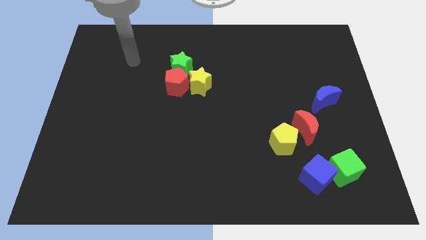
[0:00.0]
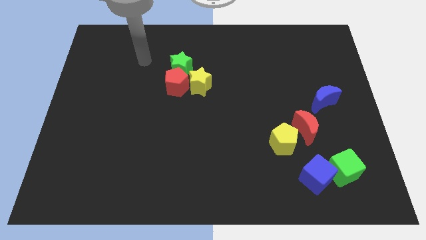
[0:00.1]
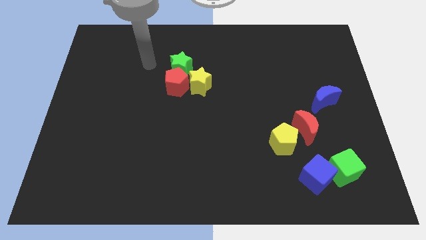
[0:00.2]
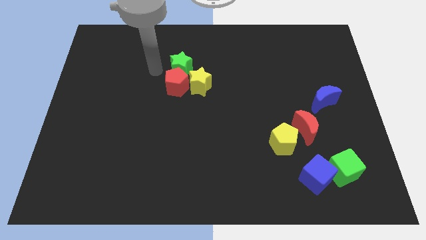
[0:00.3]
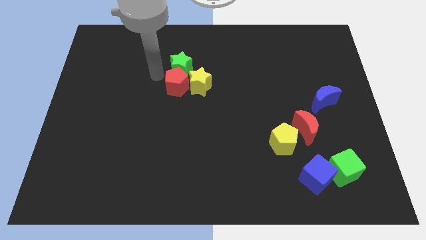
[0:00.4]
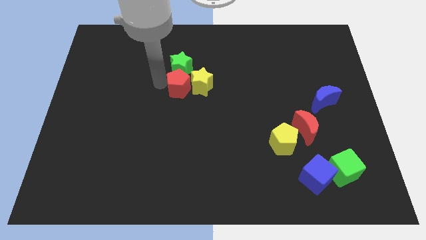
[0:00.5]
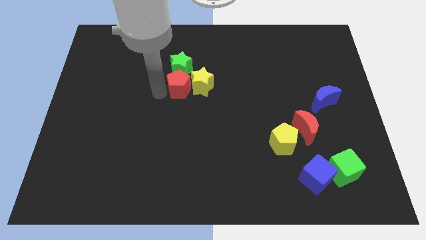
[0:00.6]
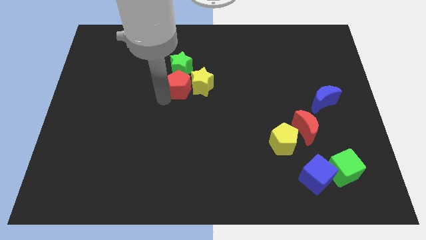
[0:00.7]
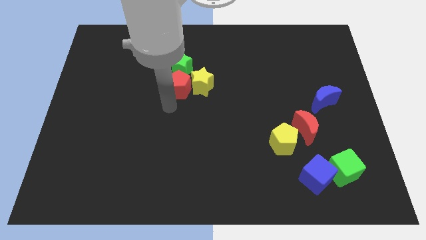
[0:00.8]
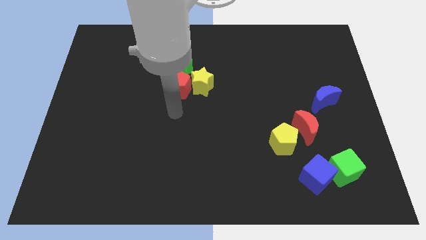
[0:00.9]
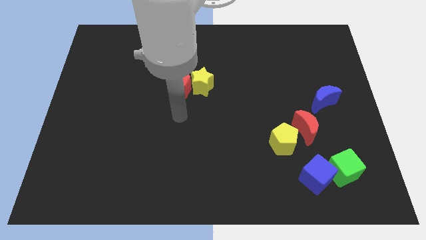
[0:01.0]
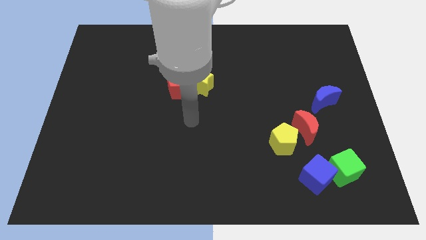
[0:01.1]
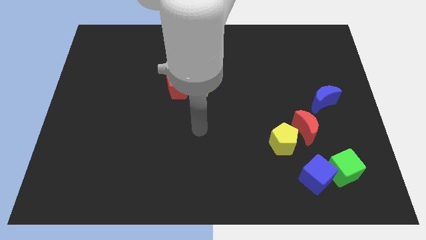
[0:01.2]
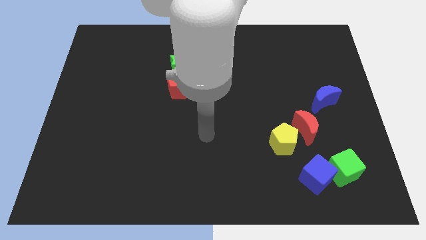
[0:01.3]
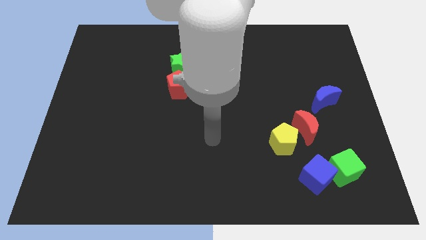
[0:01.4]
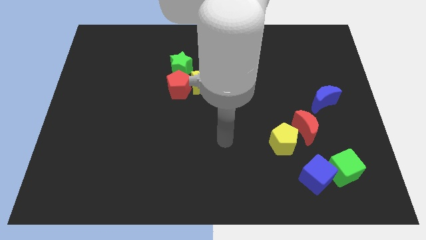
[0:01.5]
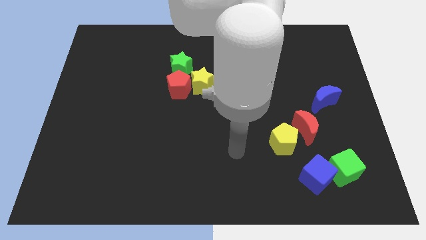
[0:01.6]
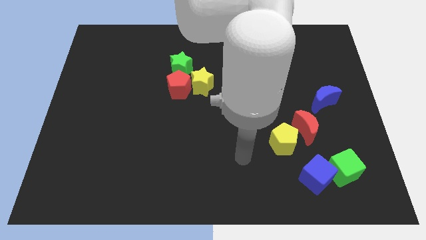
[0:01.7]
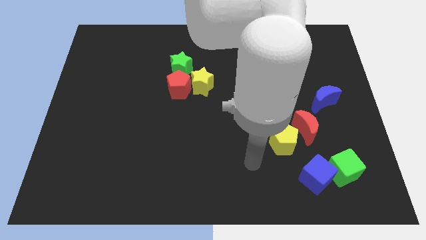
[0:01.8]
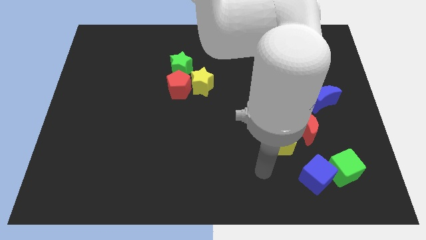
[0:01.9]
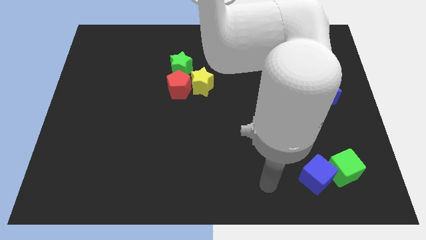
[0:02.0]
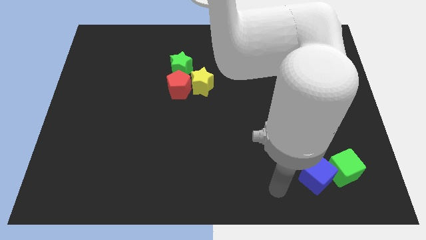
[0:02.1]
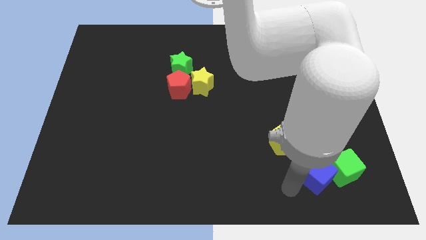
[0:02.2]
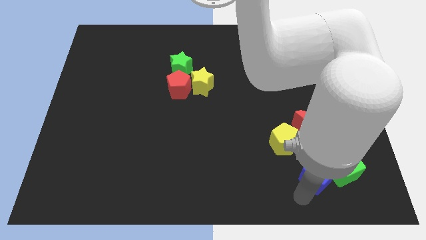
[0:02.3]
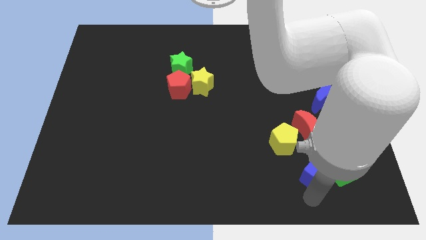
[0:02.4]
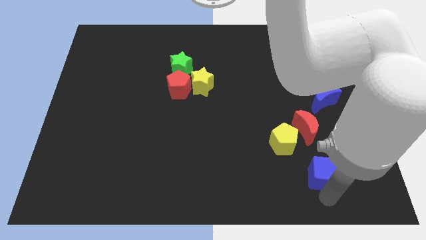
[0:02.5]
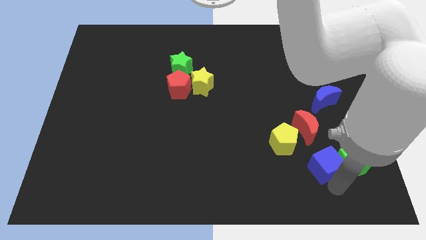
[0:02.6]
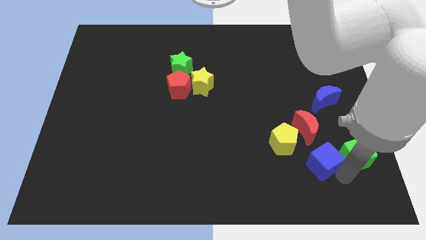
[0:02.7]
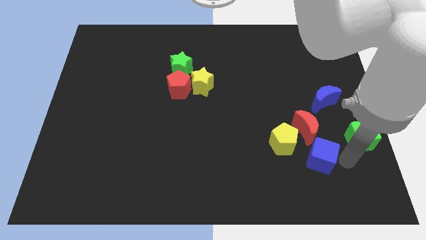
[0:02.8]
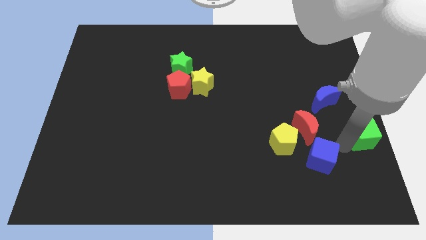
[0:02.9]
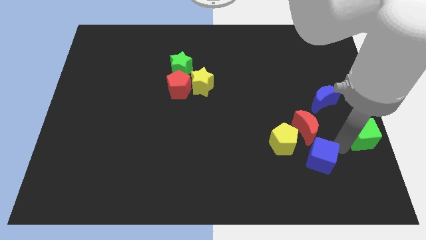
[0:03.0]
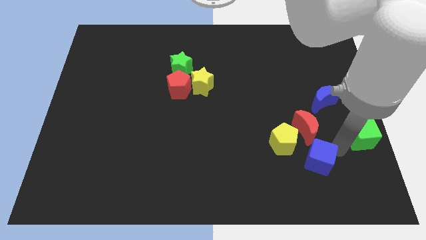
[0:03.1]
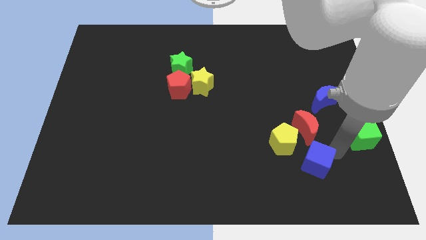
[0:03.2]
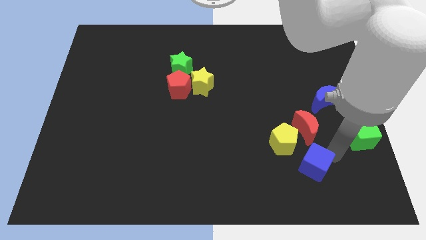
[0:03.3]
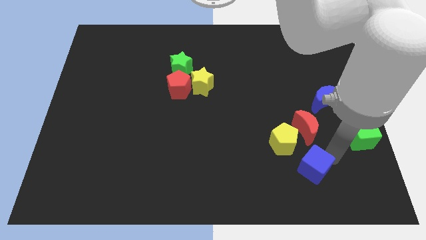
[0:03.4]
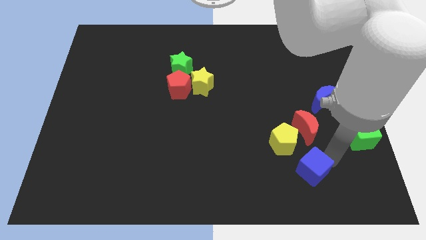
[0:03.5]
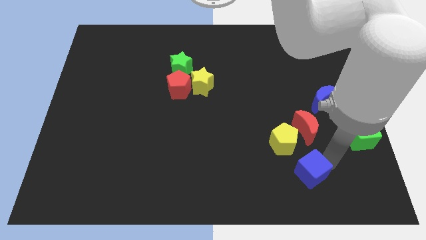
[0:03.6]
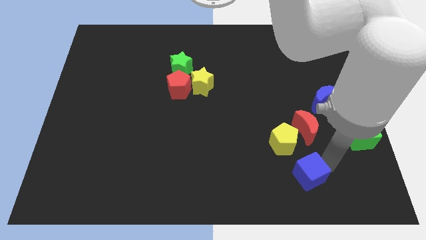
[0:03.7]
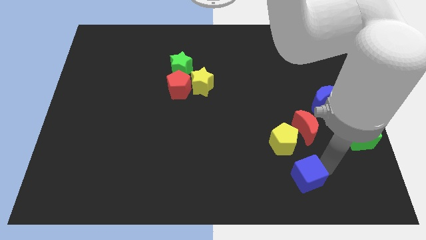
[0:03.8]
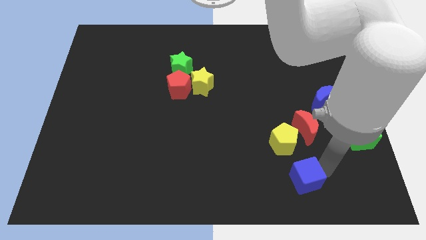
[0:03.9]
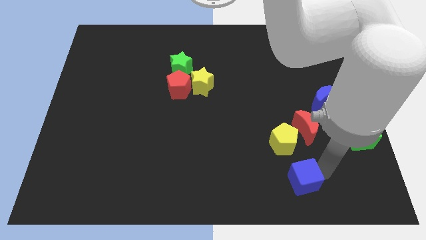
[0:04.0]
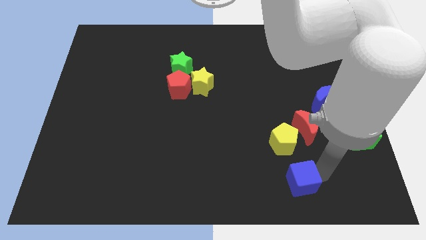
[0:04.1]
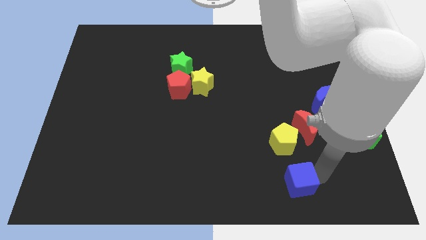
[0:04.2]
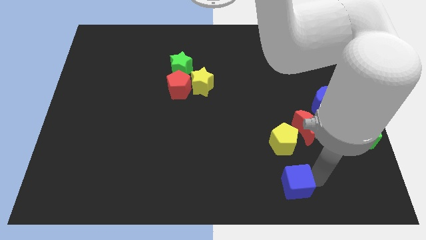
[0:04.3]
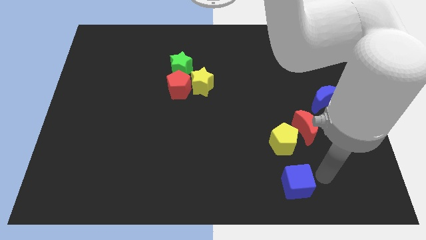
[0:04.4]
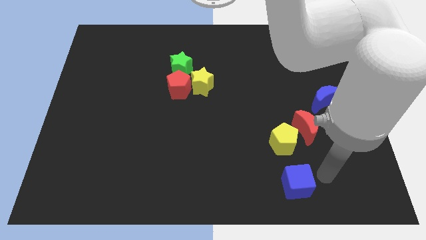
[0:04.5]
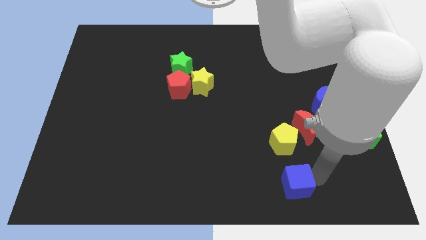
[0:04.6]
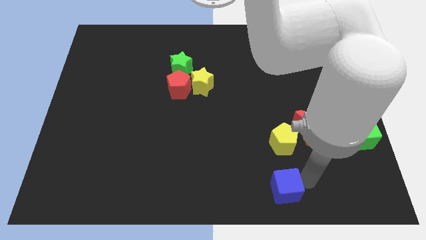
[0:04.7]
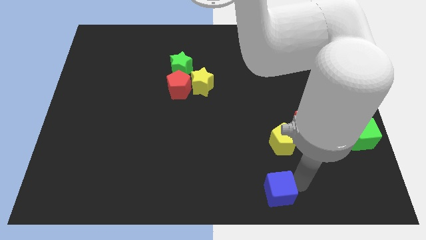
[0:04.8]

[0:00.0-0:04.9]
push the blue cube to the bottom side

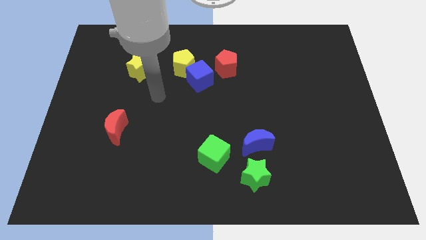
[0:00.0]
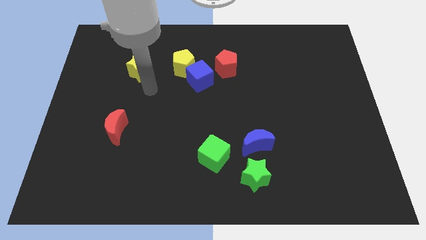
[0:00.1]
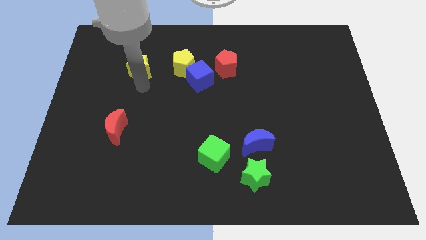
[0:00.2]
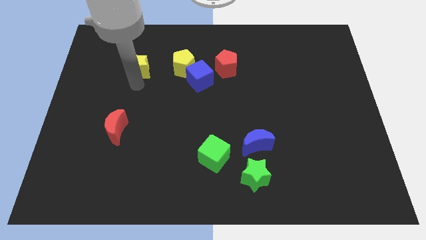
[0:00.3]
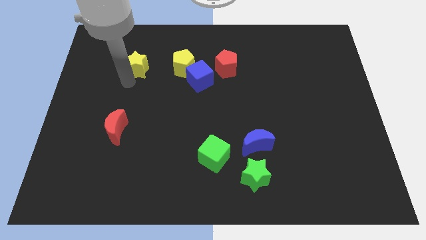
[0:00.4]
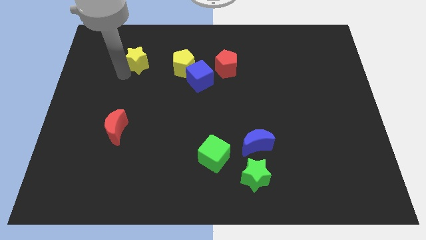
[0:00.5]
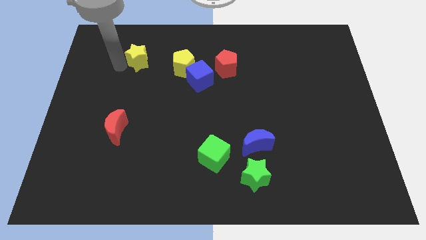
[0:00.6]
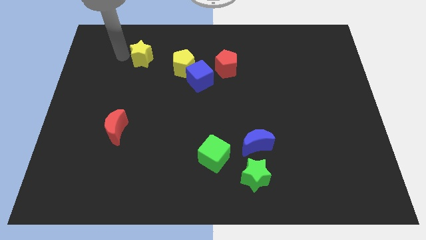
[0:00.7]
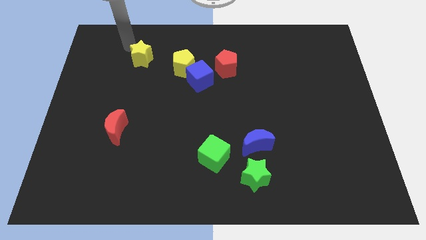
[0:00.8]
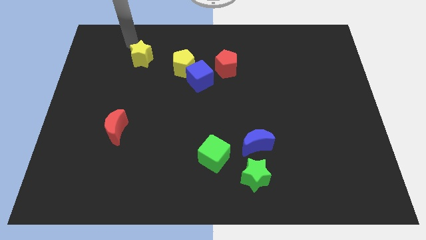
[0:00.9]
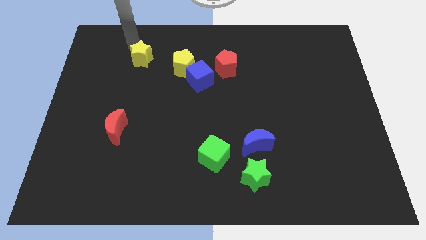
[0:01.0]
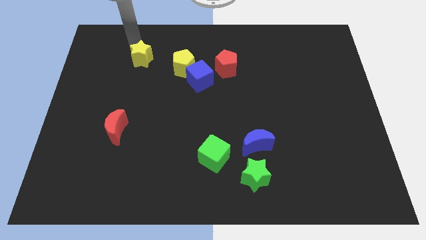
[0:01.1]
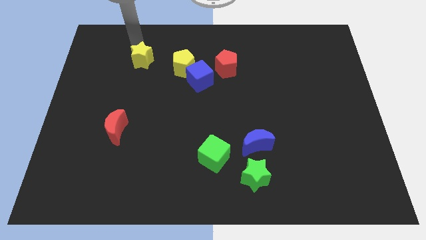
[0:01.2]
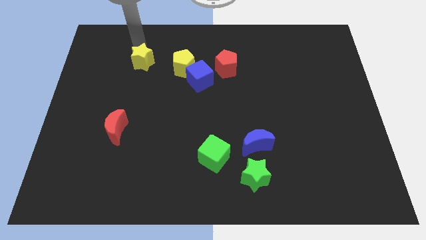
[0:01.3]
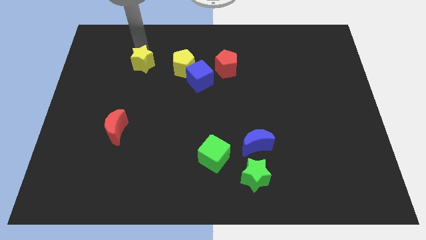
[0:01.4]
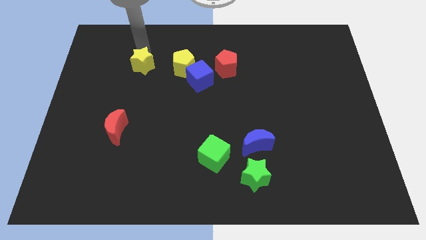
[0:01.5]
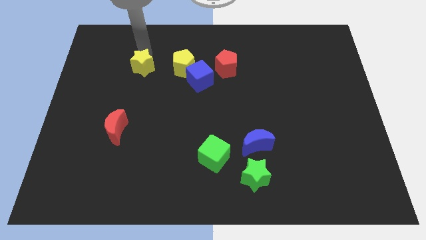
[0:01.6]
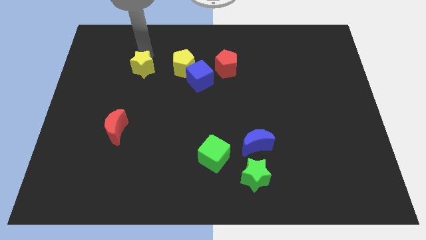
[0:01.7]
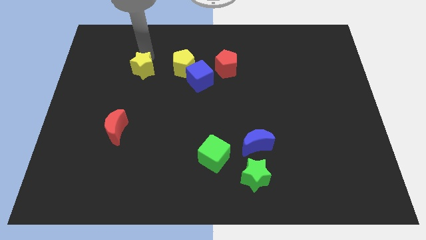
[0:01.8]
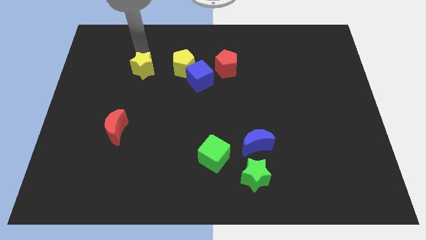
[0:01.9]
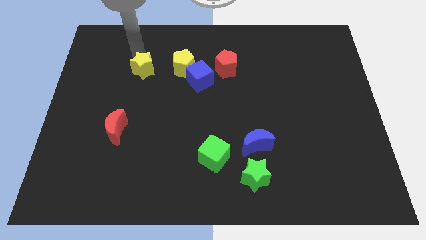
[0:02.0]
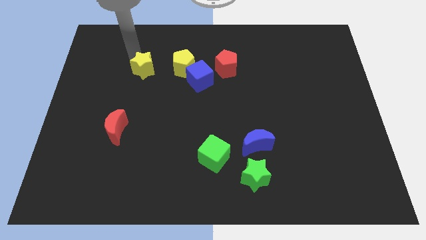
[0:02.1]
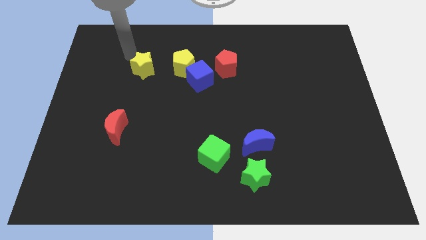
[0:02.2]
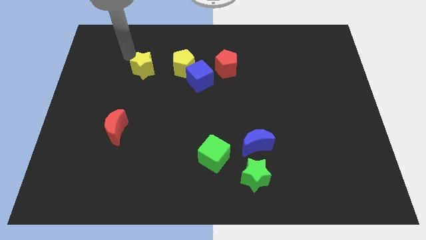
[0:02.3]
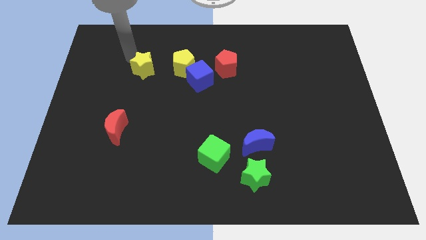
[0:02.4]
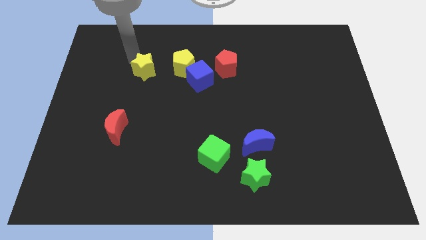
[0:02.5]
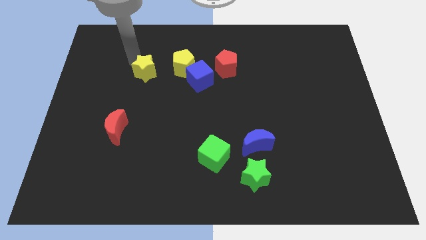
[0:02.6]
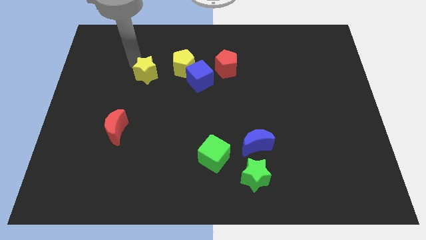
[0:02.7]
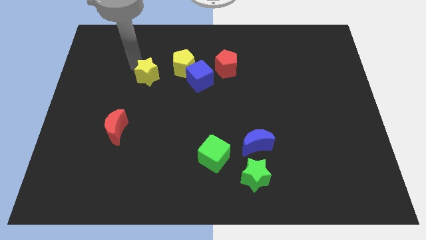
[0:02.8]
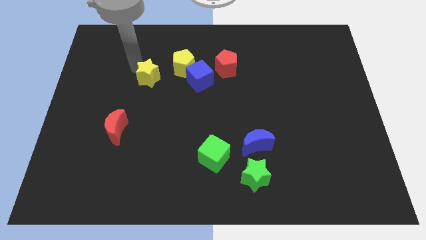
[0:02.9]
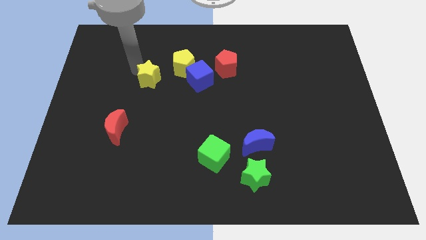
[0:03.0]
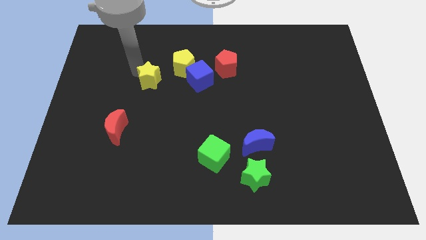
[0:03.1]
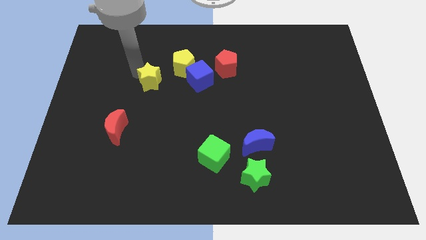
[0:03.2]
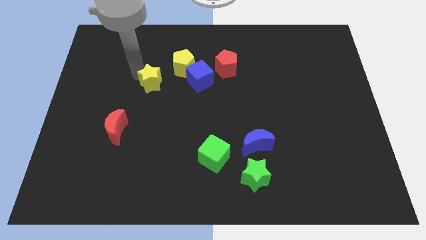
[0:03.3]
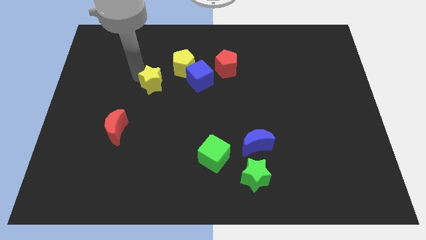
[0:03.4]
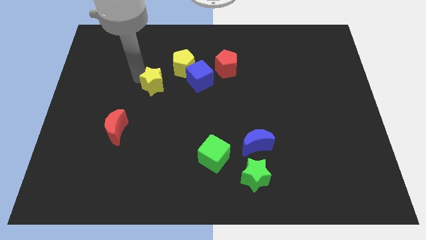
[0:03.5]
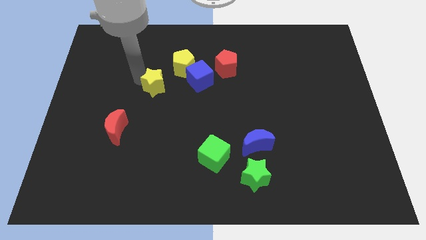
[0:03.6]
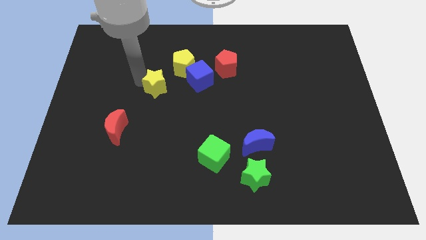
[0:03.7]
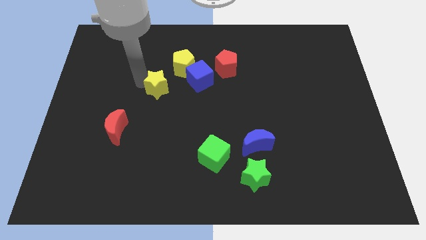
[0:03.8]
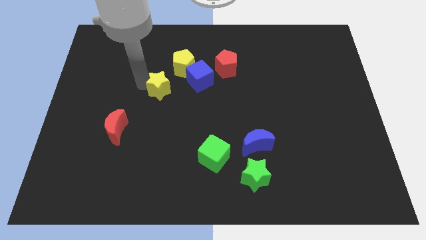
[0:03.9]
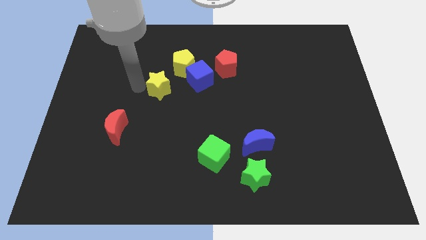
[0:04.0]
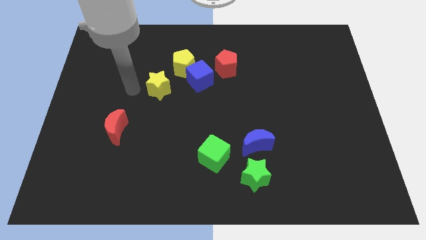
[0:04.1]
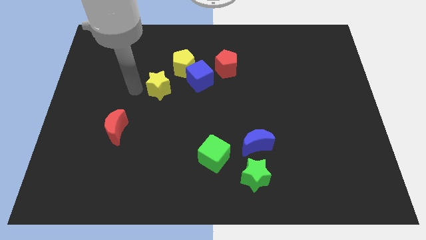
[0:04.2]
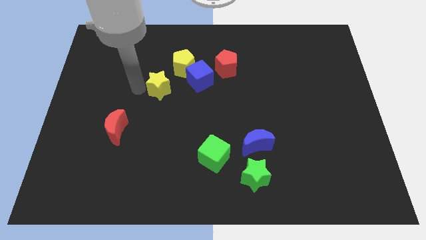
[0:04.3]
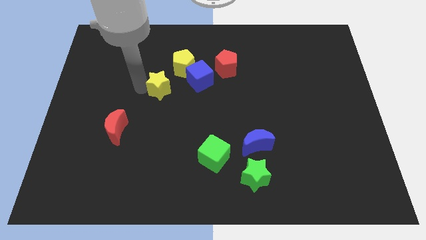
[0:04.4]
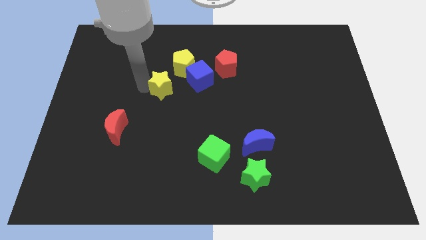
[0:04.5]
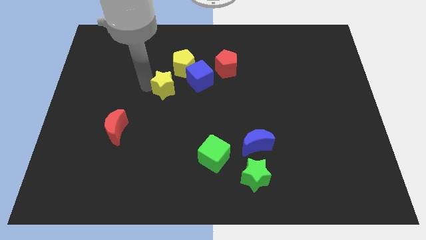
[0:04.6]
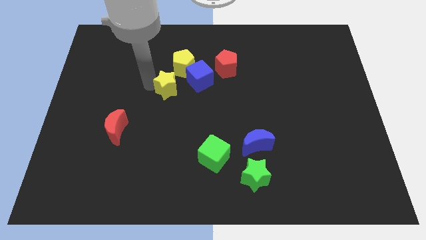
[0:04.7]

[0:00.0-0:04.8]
move the yellow star to the middle of the board
